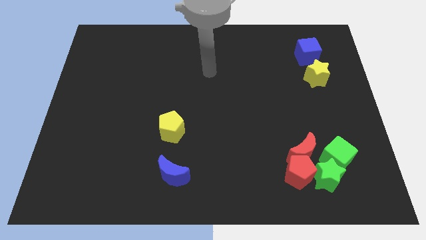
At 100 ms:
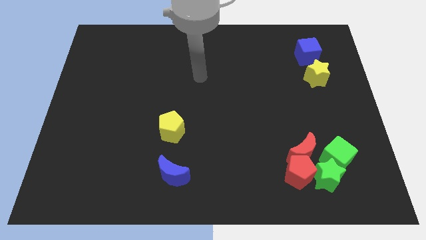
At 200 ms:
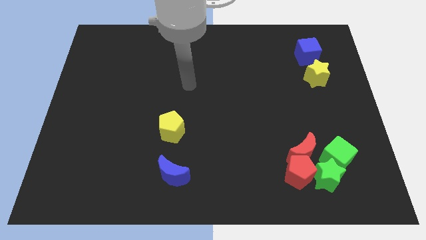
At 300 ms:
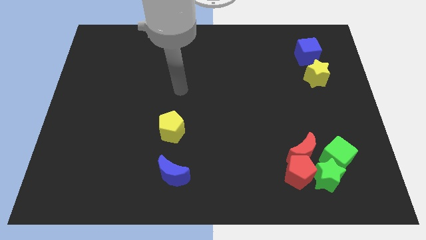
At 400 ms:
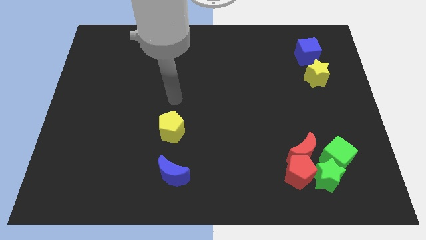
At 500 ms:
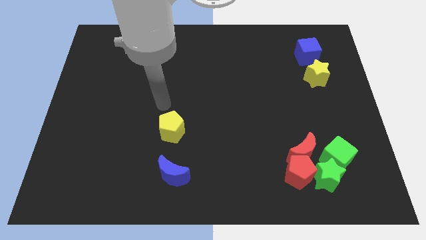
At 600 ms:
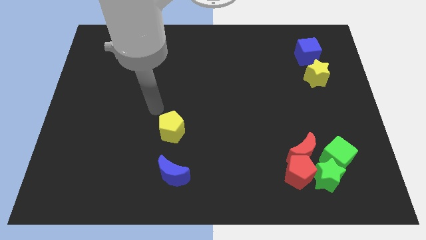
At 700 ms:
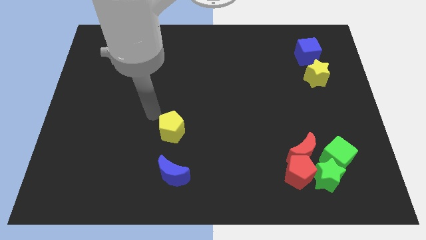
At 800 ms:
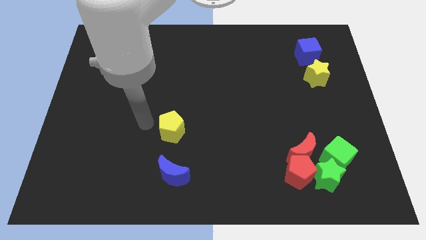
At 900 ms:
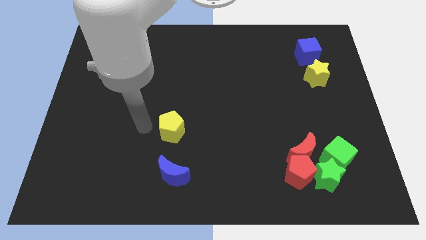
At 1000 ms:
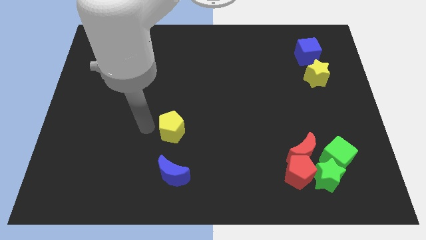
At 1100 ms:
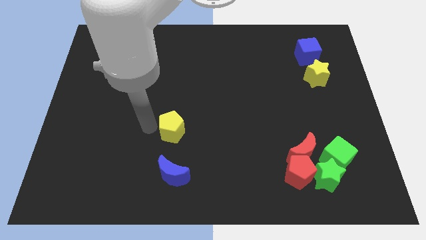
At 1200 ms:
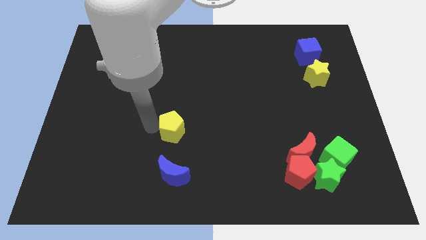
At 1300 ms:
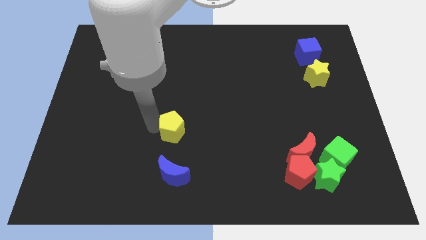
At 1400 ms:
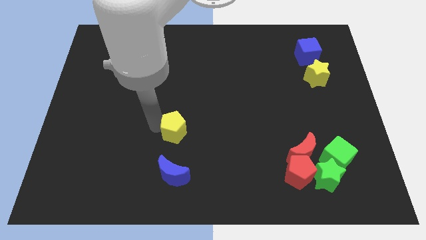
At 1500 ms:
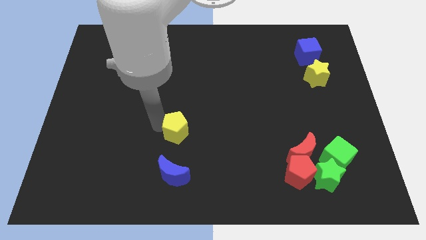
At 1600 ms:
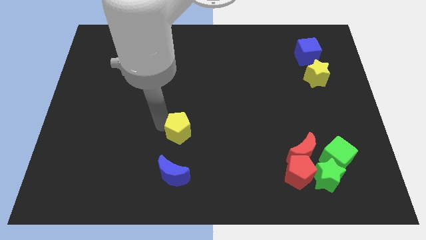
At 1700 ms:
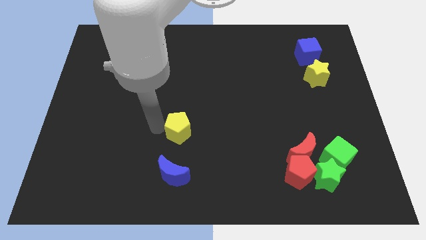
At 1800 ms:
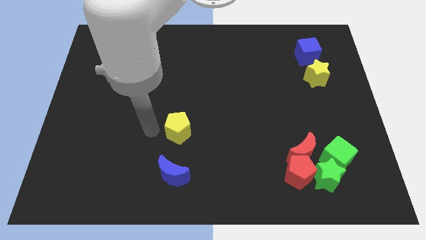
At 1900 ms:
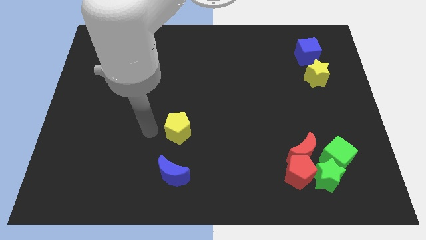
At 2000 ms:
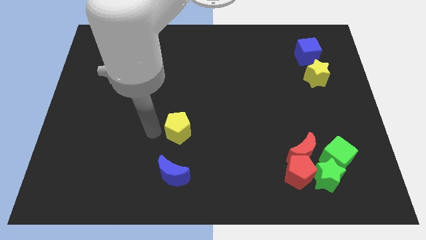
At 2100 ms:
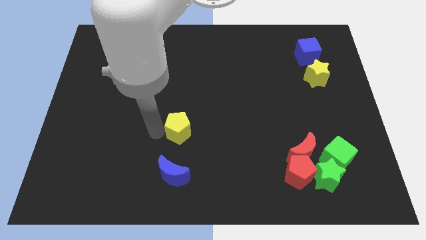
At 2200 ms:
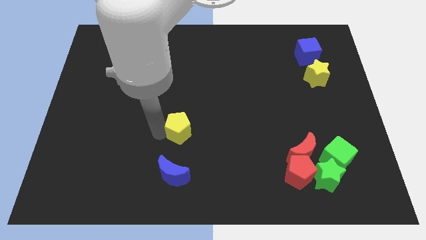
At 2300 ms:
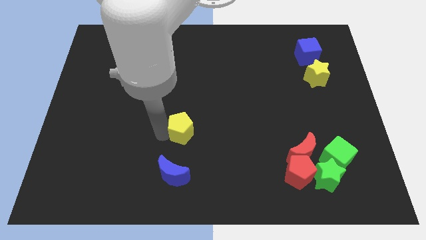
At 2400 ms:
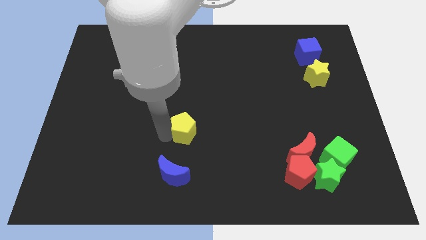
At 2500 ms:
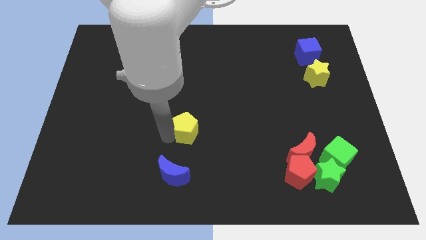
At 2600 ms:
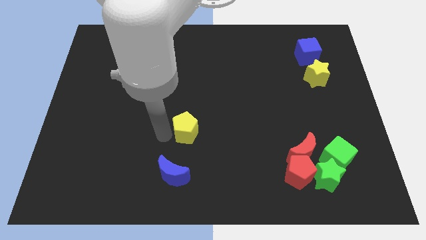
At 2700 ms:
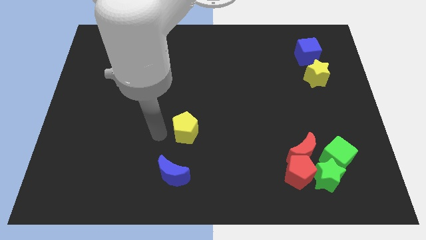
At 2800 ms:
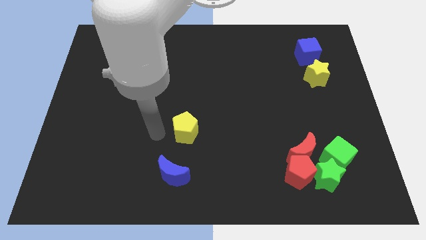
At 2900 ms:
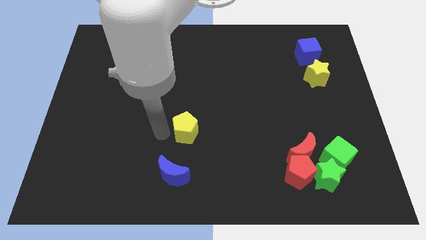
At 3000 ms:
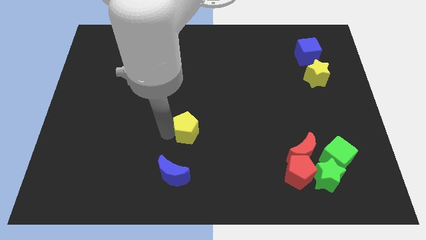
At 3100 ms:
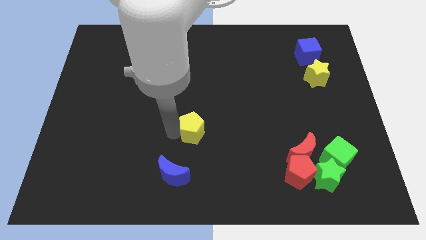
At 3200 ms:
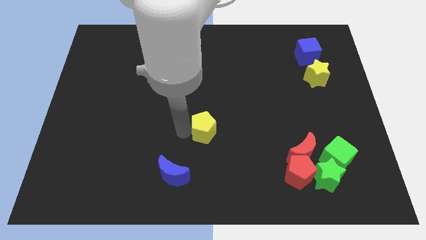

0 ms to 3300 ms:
slightly slide the yellow pentagon to the right

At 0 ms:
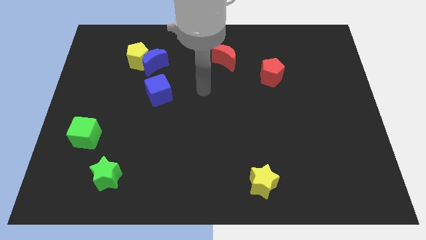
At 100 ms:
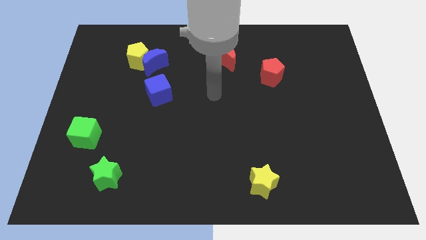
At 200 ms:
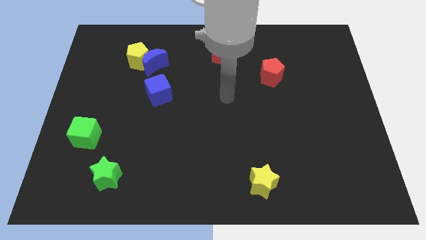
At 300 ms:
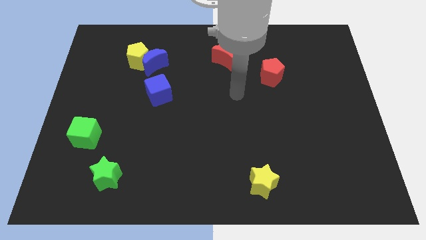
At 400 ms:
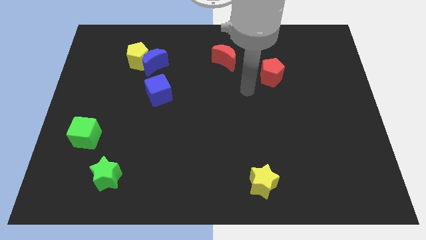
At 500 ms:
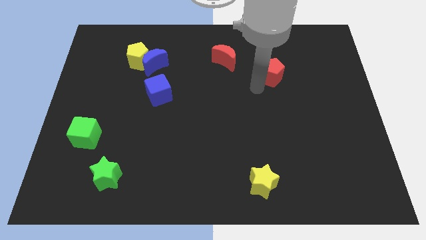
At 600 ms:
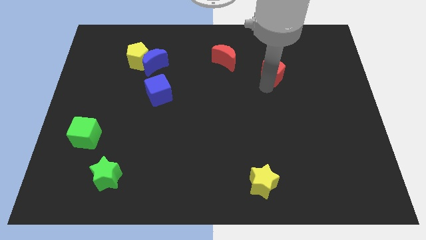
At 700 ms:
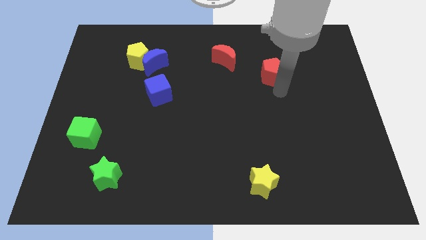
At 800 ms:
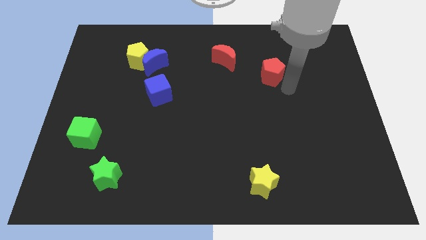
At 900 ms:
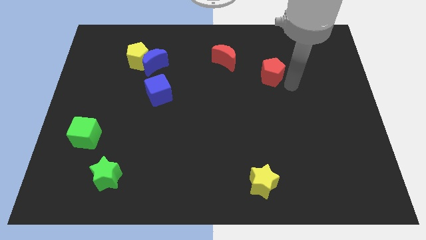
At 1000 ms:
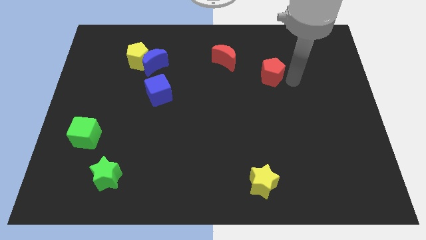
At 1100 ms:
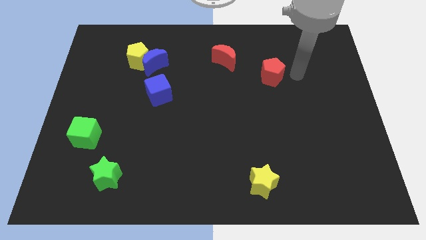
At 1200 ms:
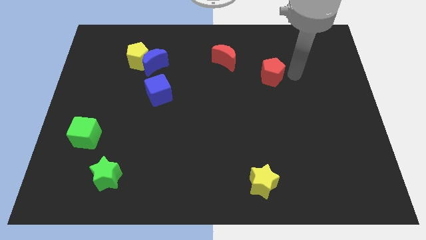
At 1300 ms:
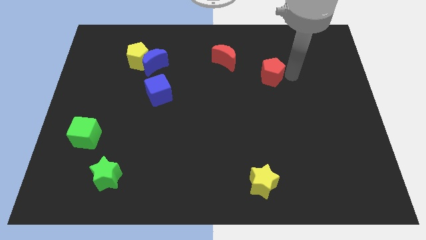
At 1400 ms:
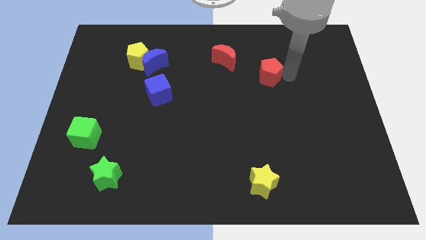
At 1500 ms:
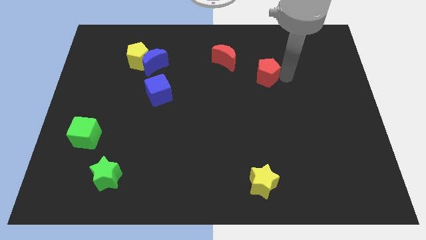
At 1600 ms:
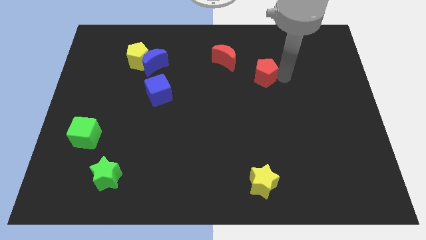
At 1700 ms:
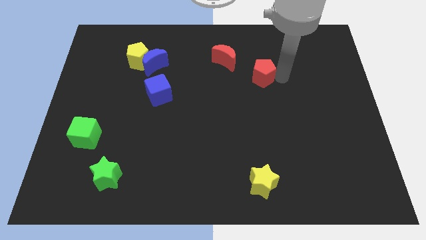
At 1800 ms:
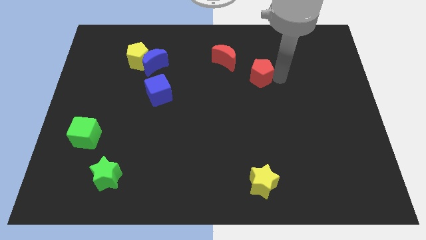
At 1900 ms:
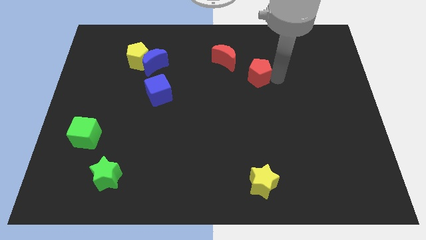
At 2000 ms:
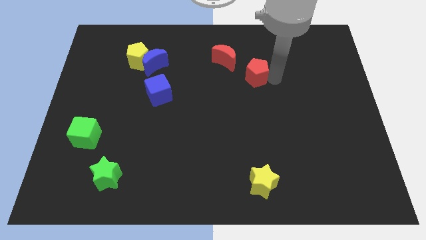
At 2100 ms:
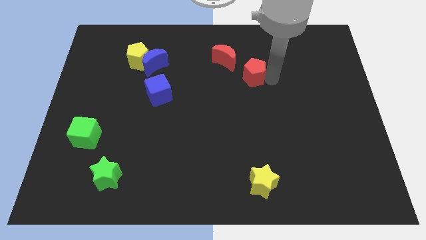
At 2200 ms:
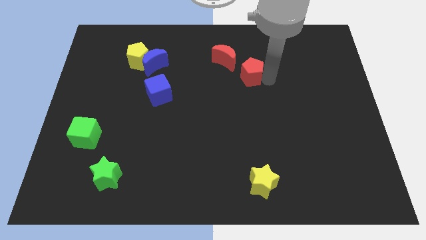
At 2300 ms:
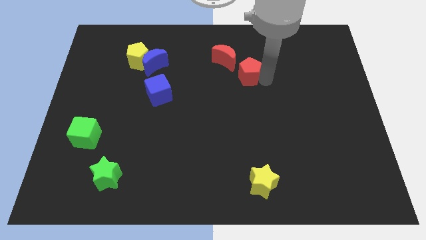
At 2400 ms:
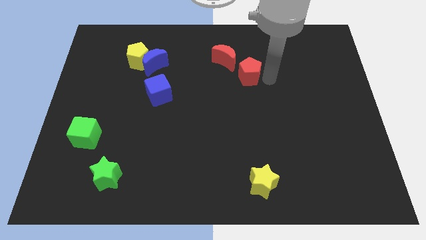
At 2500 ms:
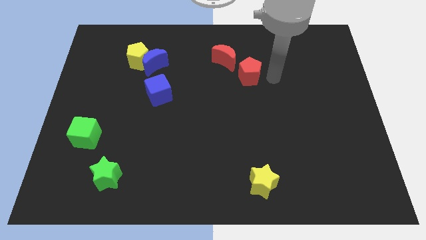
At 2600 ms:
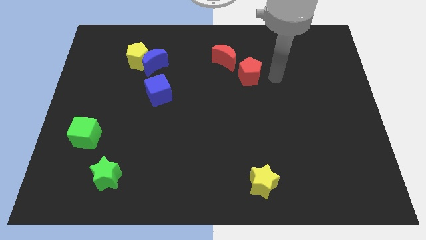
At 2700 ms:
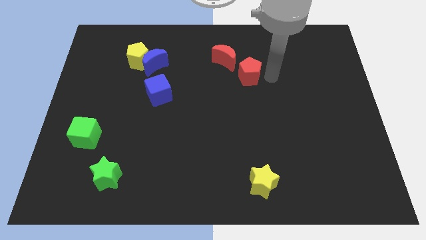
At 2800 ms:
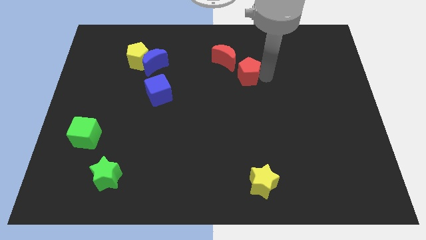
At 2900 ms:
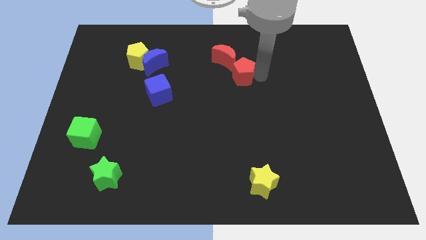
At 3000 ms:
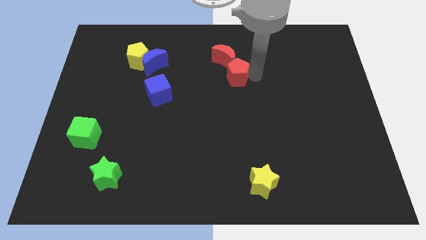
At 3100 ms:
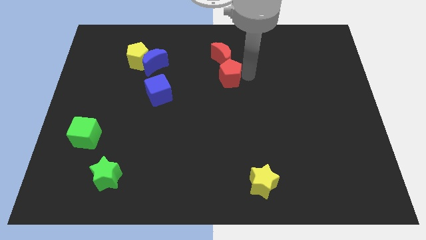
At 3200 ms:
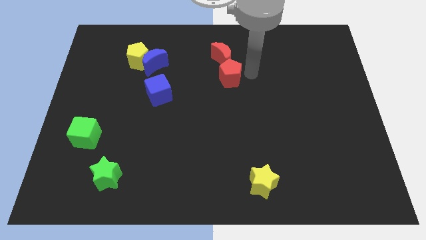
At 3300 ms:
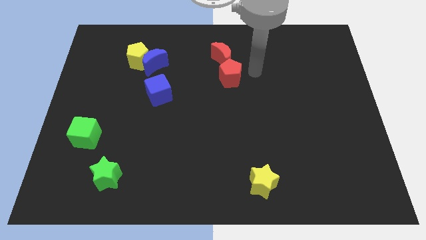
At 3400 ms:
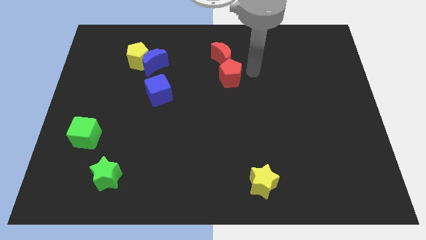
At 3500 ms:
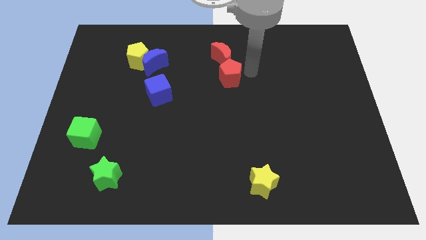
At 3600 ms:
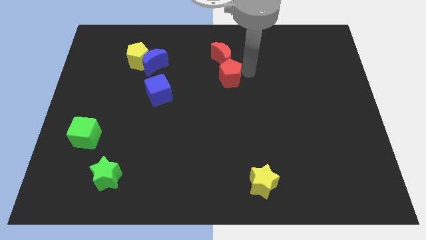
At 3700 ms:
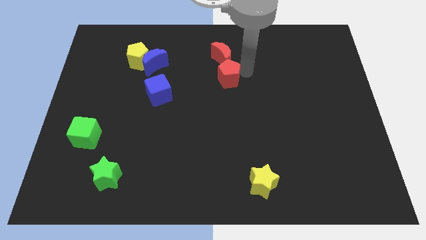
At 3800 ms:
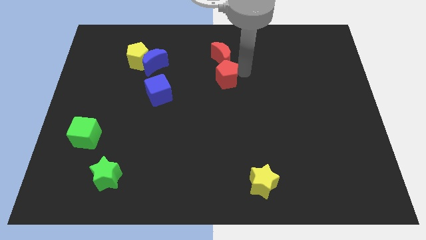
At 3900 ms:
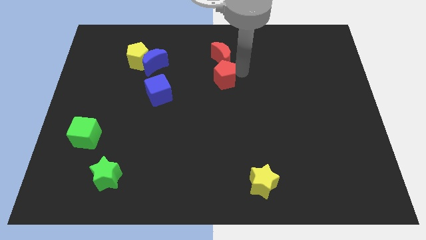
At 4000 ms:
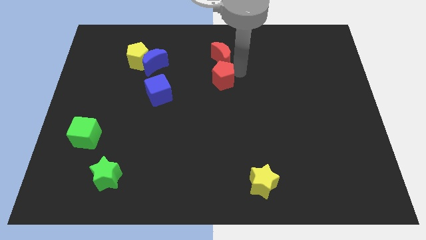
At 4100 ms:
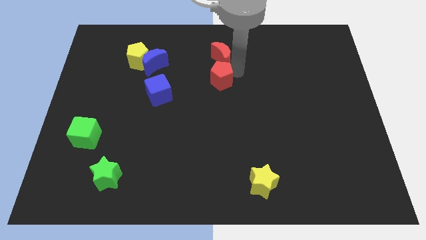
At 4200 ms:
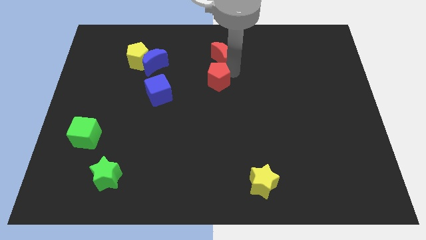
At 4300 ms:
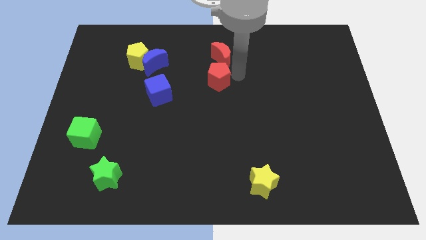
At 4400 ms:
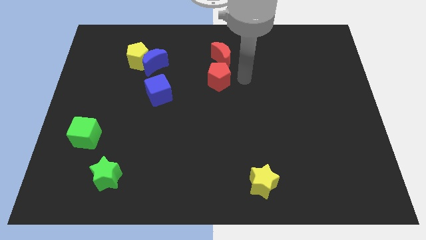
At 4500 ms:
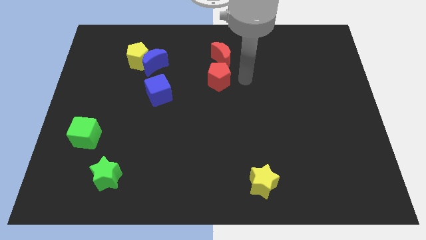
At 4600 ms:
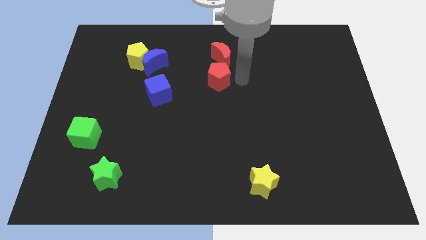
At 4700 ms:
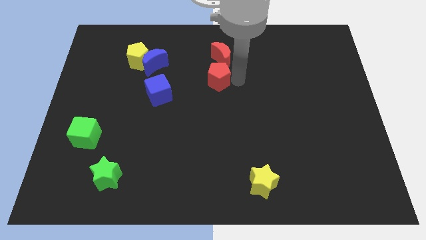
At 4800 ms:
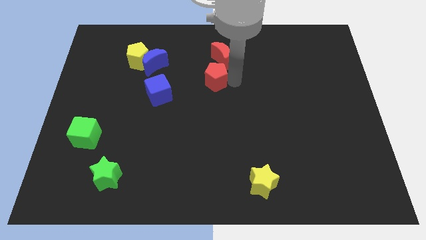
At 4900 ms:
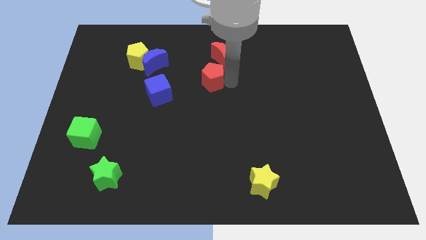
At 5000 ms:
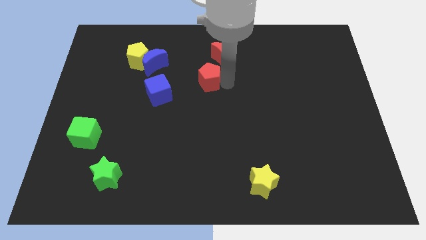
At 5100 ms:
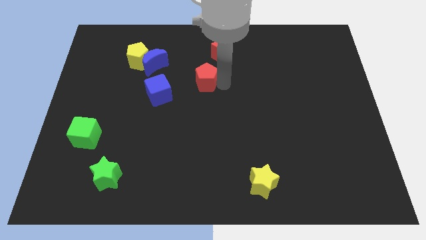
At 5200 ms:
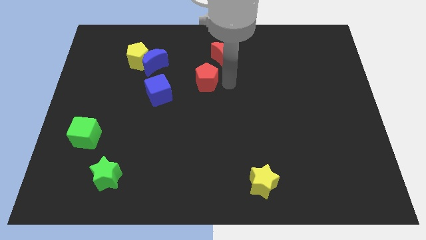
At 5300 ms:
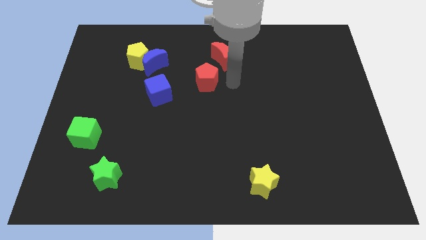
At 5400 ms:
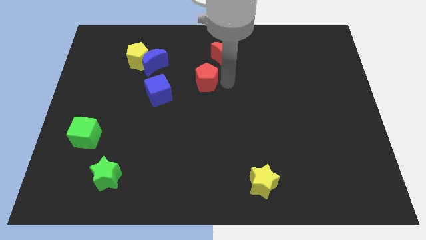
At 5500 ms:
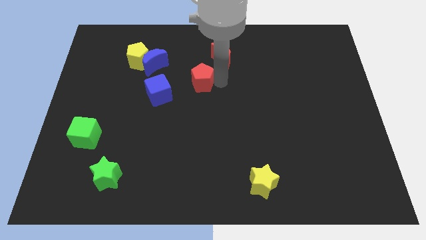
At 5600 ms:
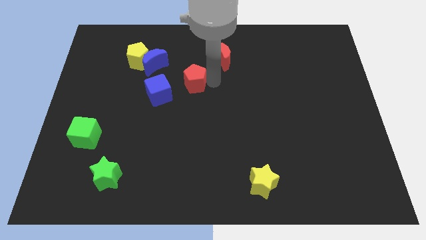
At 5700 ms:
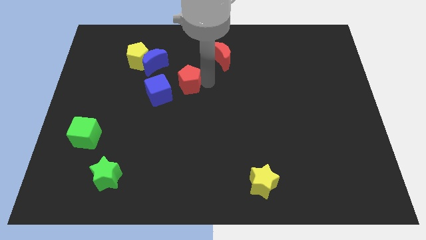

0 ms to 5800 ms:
slide the red pentagon left
